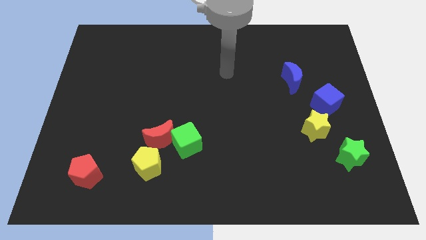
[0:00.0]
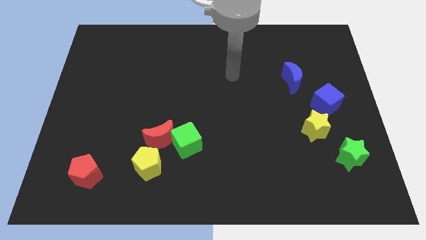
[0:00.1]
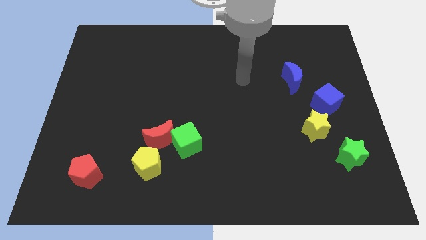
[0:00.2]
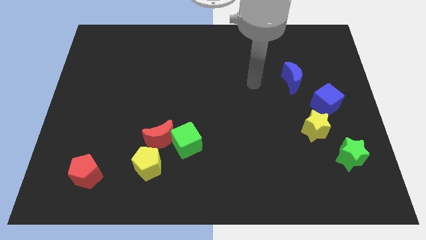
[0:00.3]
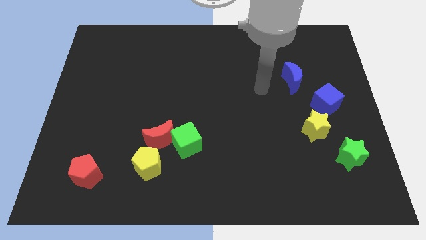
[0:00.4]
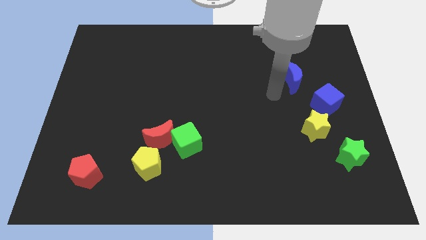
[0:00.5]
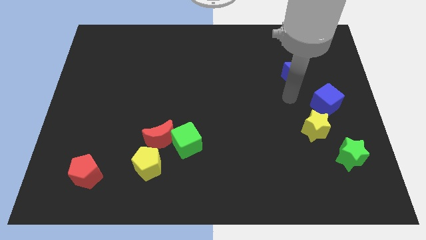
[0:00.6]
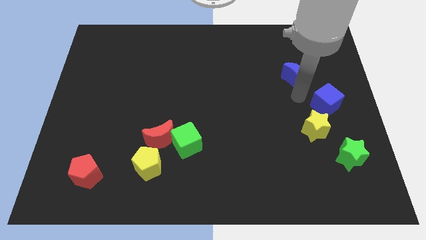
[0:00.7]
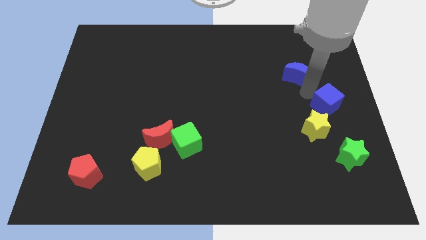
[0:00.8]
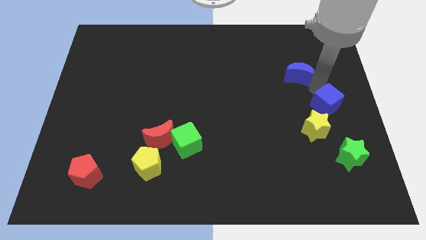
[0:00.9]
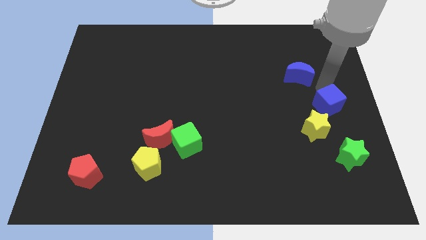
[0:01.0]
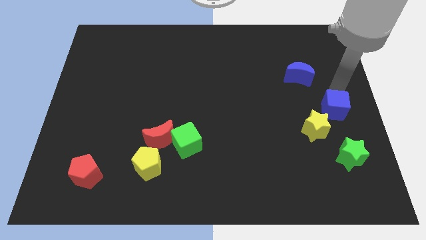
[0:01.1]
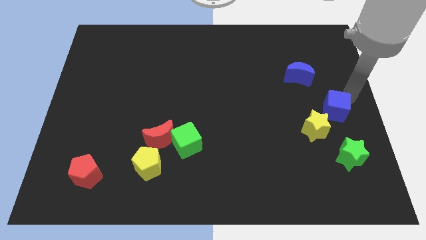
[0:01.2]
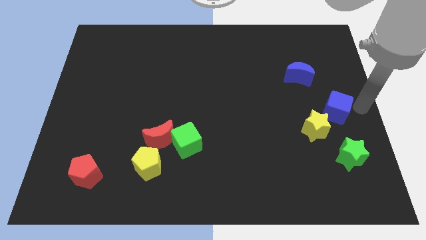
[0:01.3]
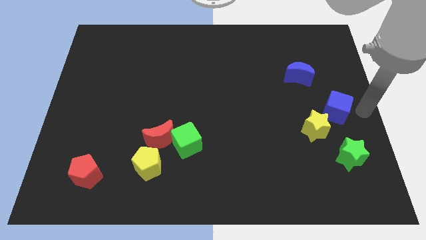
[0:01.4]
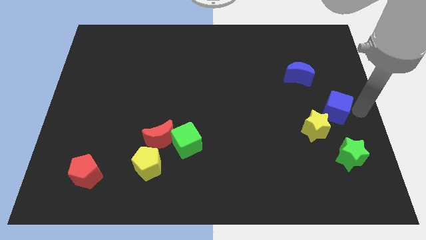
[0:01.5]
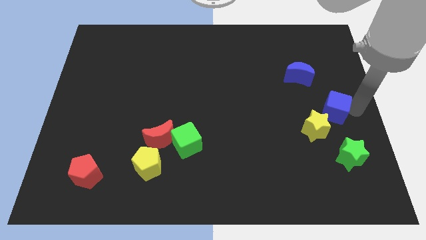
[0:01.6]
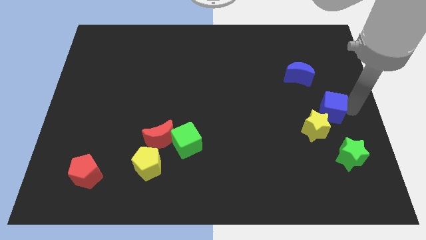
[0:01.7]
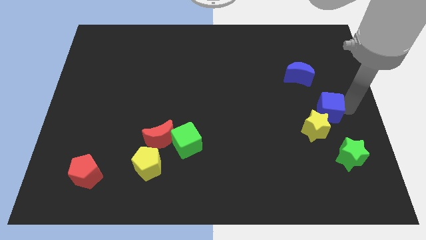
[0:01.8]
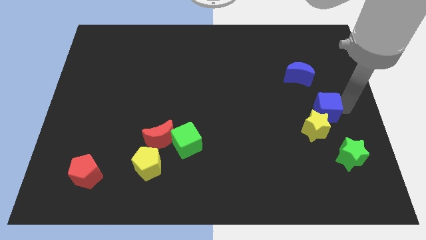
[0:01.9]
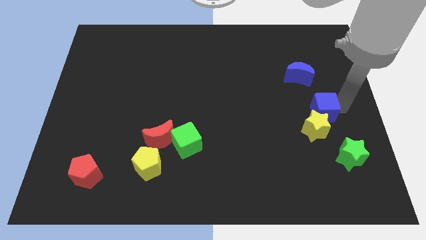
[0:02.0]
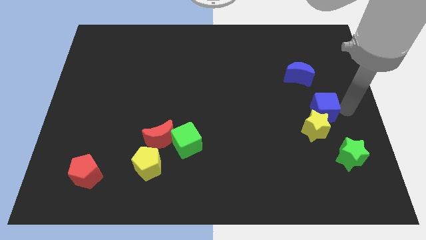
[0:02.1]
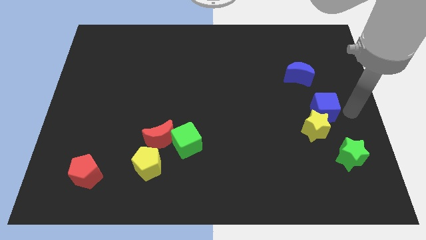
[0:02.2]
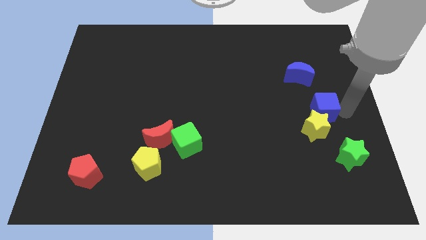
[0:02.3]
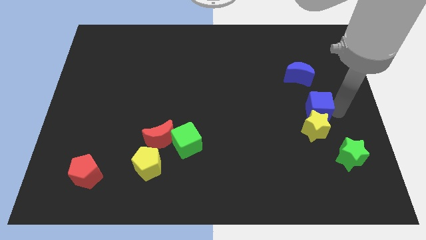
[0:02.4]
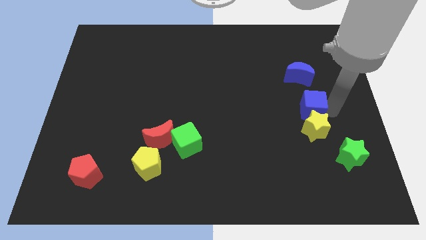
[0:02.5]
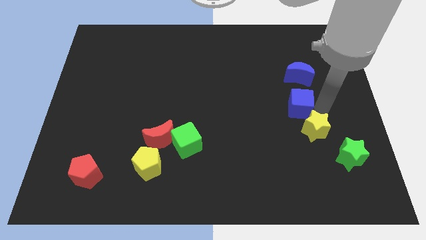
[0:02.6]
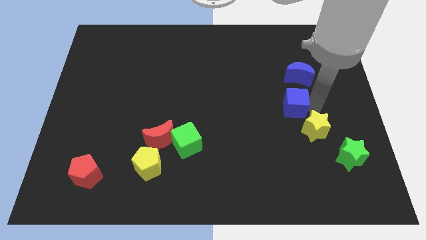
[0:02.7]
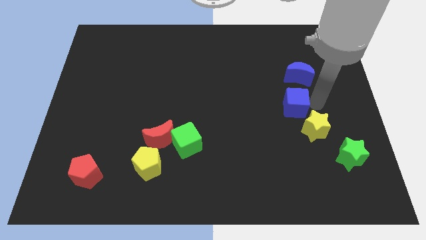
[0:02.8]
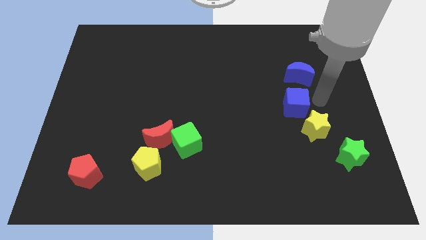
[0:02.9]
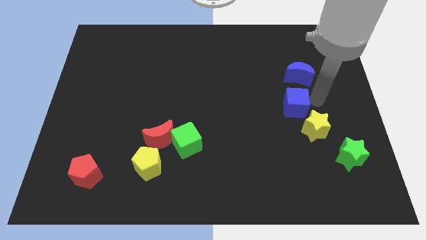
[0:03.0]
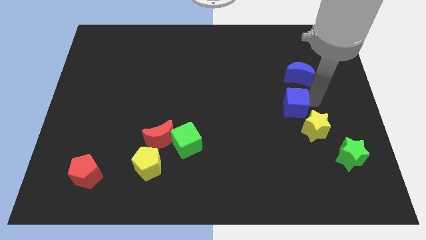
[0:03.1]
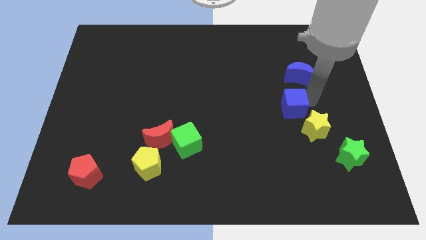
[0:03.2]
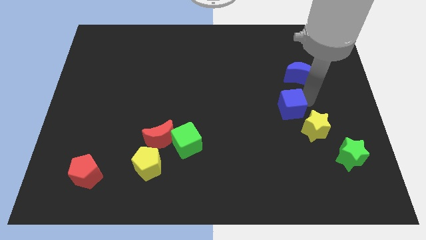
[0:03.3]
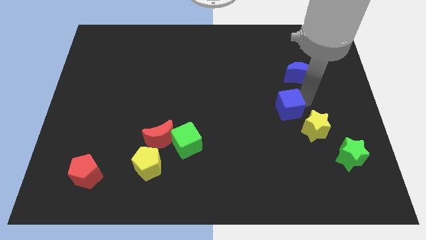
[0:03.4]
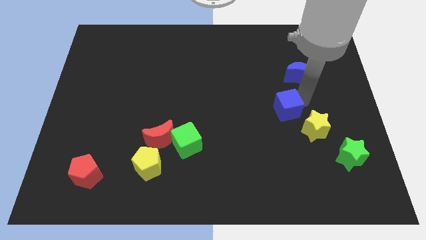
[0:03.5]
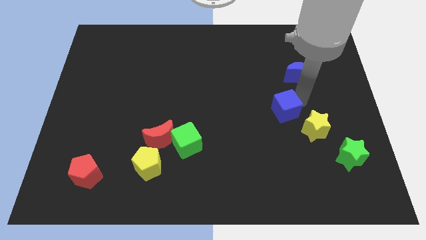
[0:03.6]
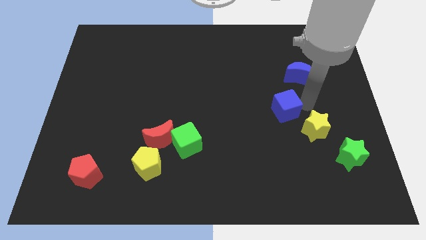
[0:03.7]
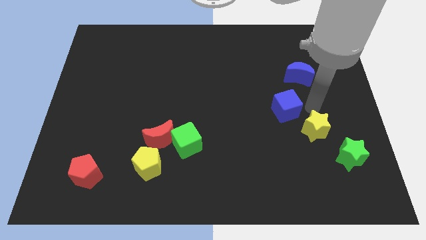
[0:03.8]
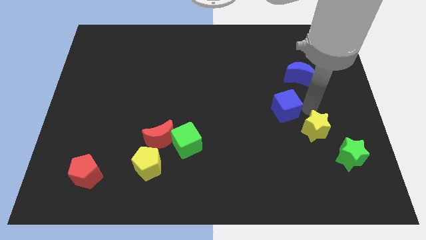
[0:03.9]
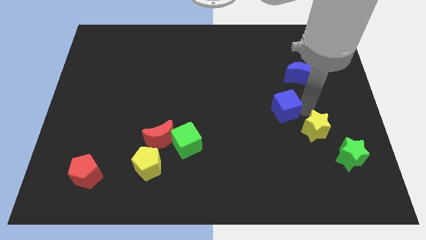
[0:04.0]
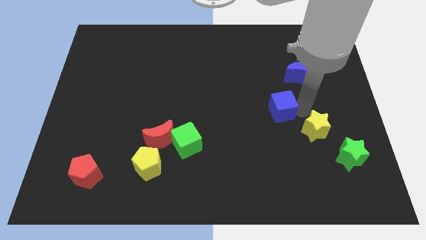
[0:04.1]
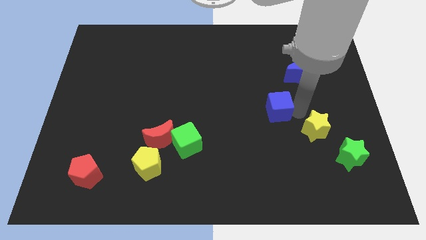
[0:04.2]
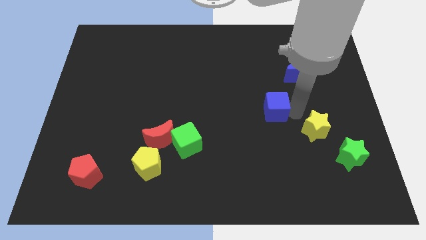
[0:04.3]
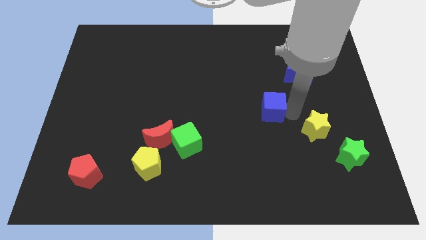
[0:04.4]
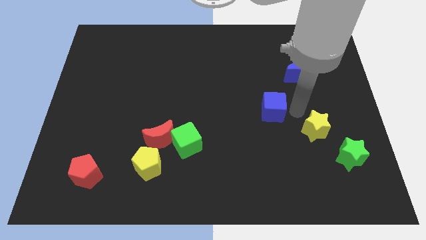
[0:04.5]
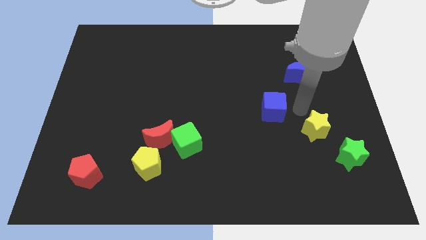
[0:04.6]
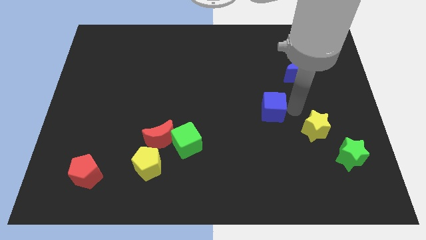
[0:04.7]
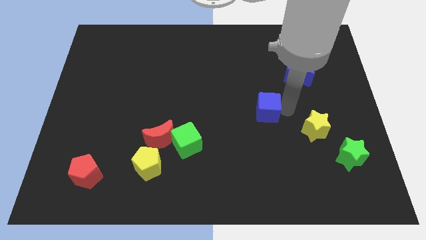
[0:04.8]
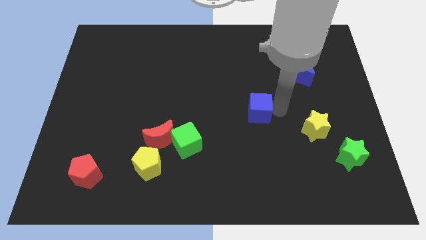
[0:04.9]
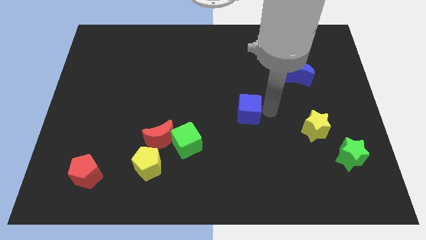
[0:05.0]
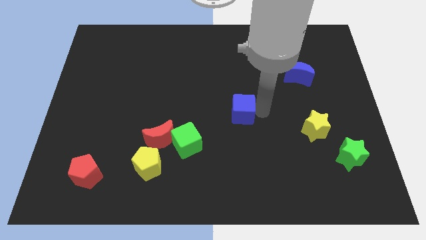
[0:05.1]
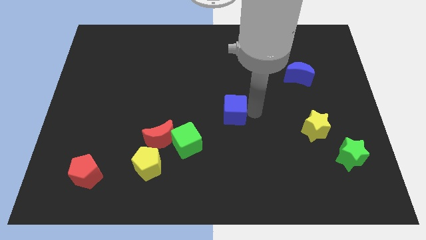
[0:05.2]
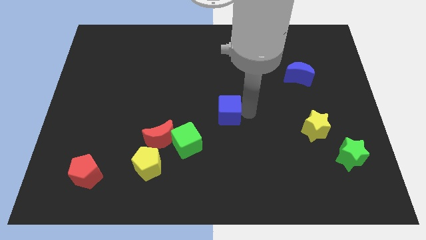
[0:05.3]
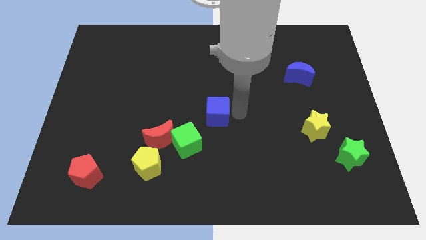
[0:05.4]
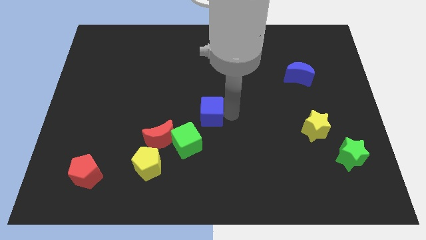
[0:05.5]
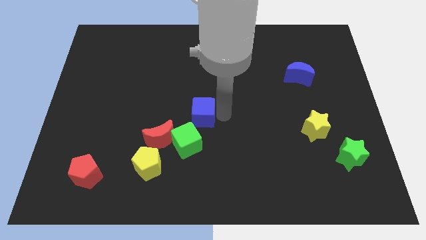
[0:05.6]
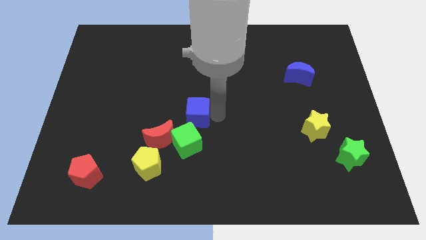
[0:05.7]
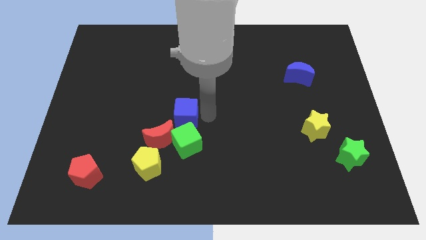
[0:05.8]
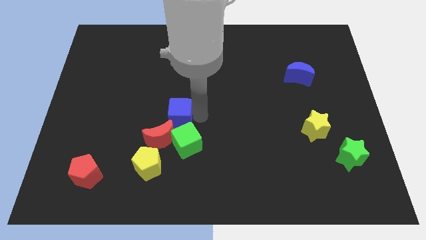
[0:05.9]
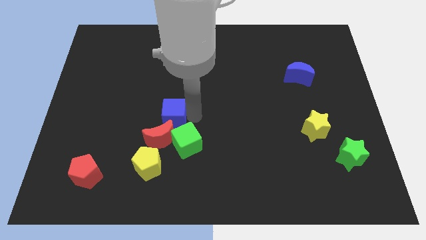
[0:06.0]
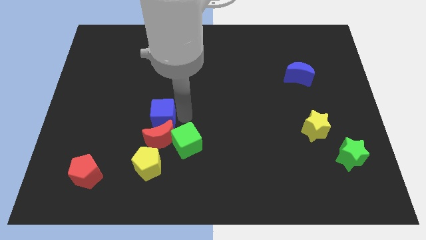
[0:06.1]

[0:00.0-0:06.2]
push the blue cube to the top left of the red moon

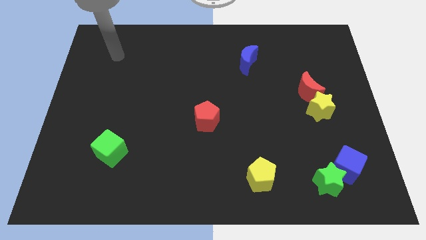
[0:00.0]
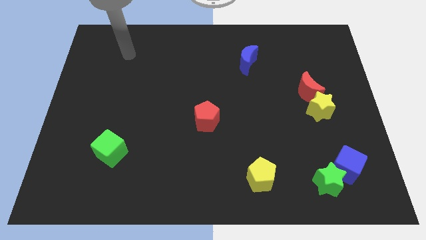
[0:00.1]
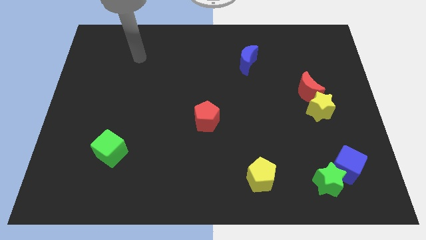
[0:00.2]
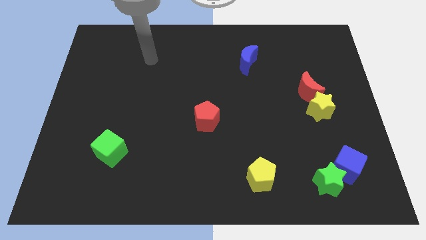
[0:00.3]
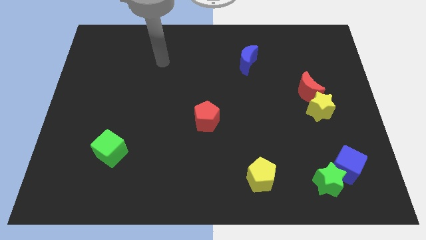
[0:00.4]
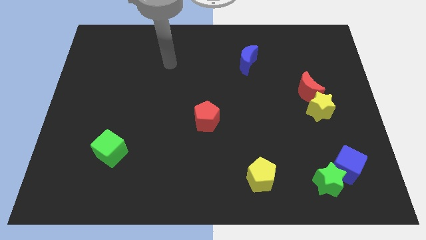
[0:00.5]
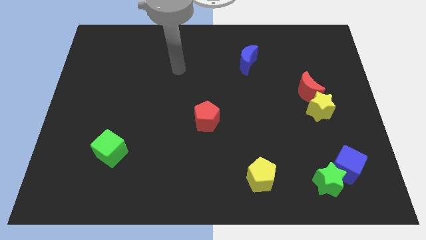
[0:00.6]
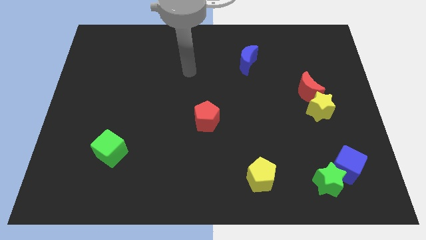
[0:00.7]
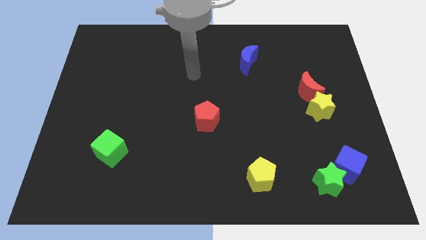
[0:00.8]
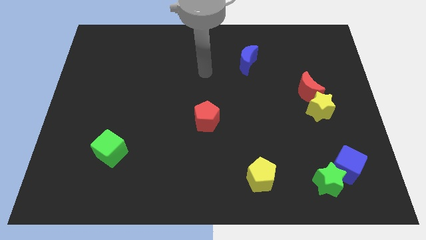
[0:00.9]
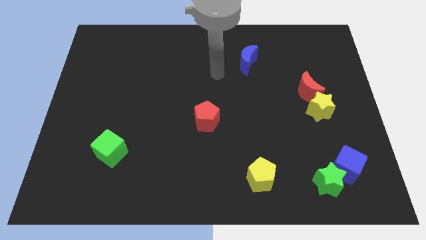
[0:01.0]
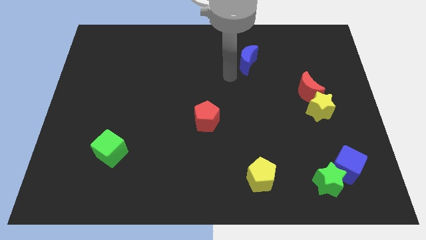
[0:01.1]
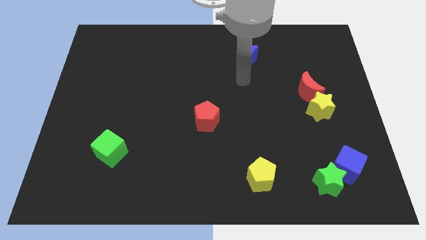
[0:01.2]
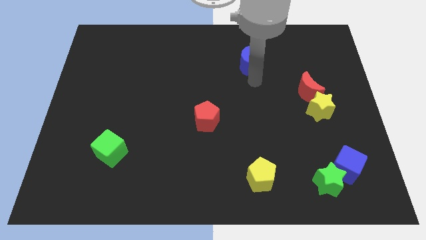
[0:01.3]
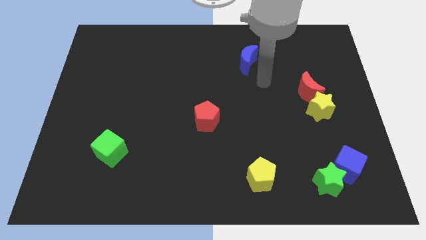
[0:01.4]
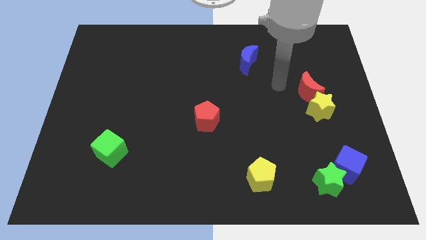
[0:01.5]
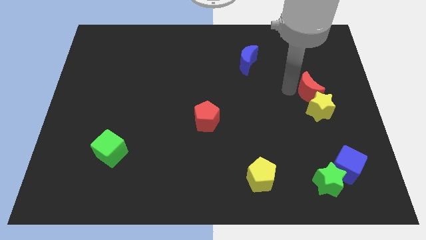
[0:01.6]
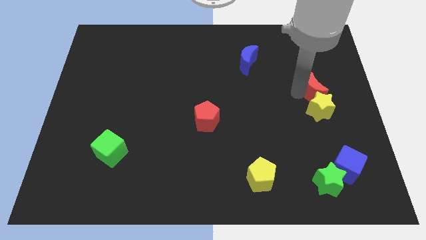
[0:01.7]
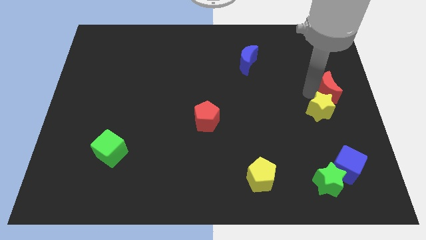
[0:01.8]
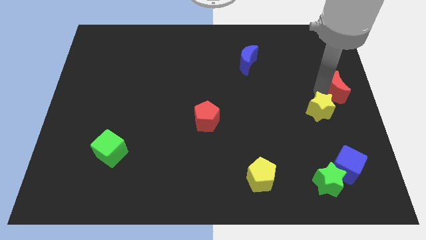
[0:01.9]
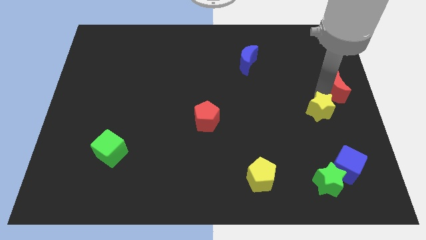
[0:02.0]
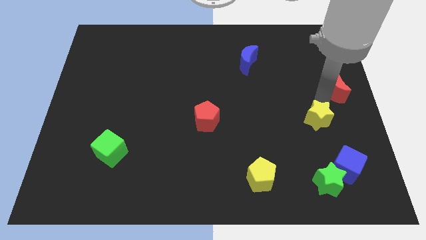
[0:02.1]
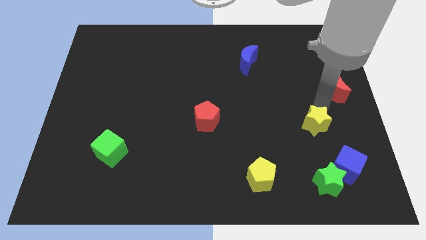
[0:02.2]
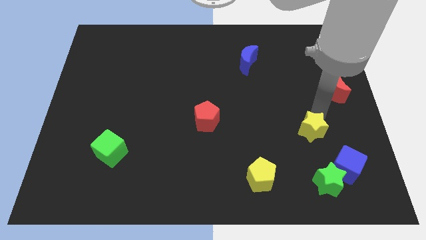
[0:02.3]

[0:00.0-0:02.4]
move the yellow star to the top left of the blue cube
